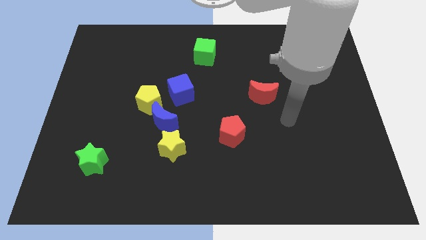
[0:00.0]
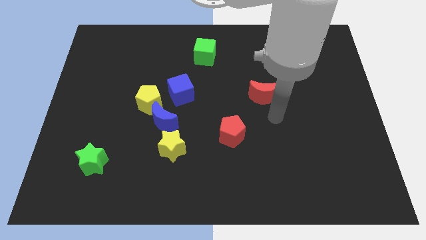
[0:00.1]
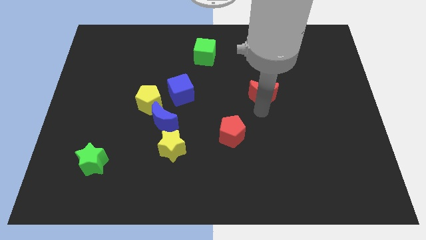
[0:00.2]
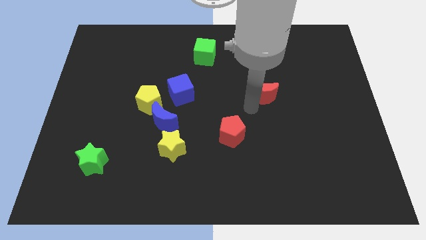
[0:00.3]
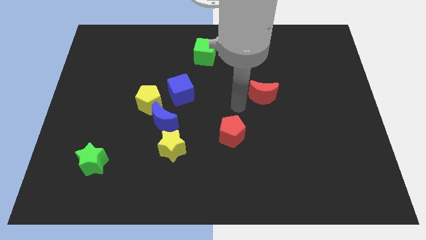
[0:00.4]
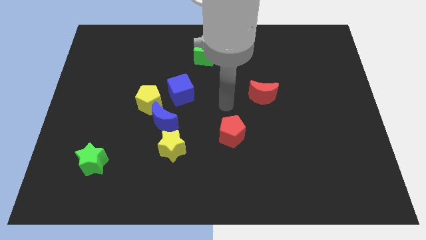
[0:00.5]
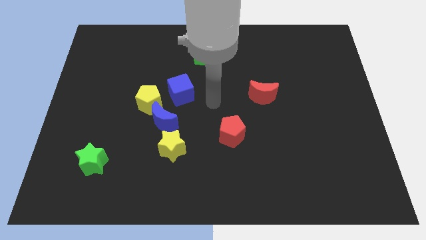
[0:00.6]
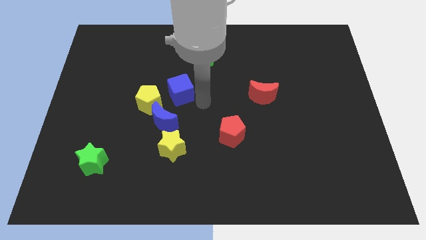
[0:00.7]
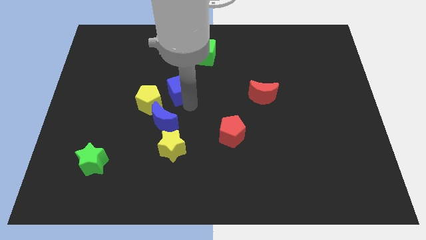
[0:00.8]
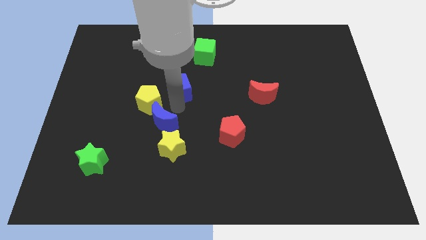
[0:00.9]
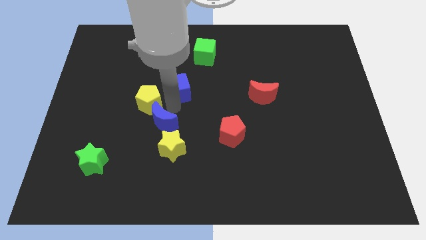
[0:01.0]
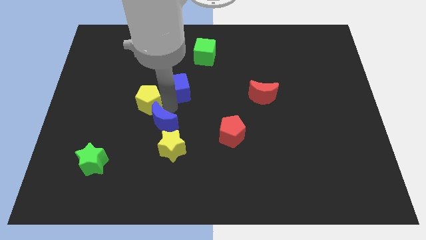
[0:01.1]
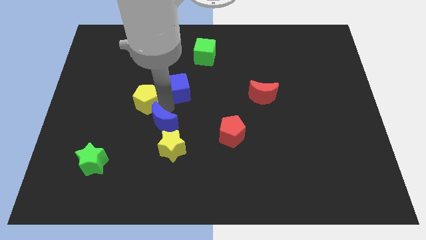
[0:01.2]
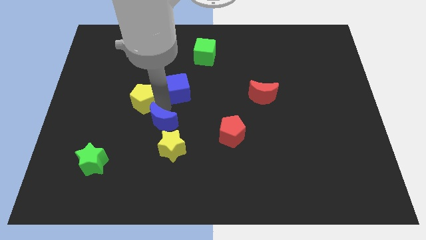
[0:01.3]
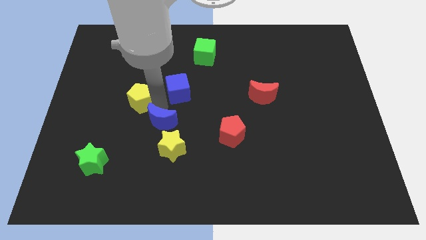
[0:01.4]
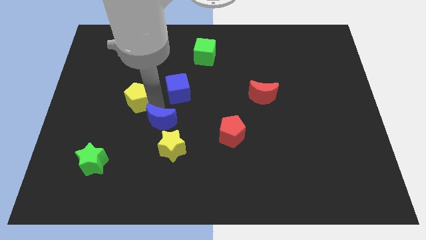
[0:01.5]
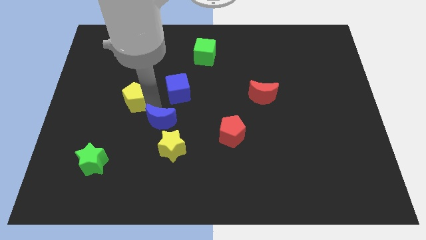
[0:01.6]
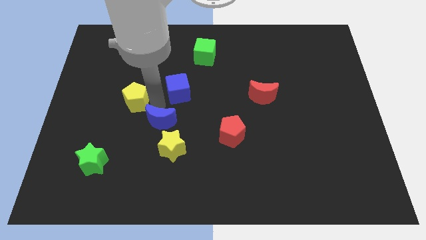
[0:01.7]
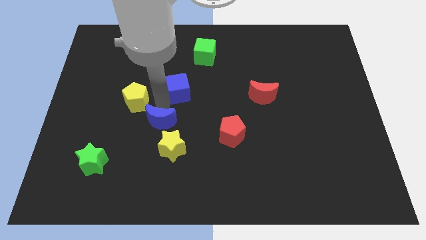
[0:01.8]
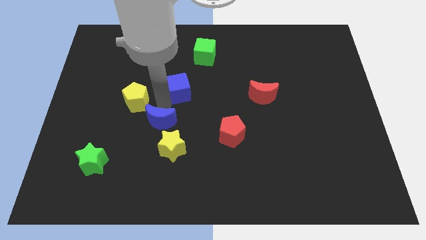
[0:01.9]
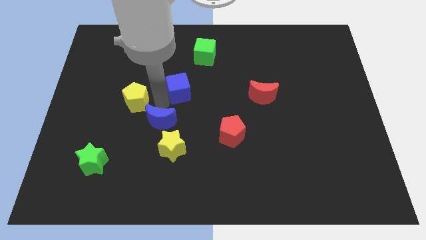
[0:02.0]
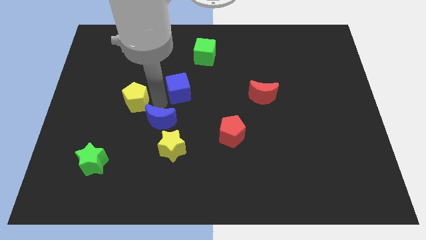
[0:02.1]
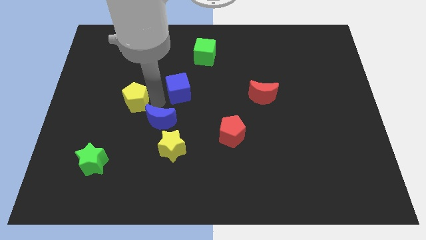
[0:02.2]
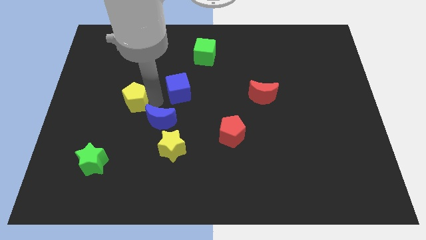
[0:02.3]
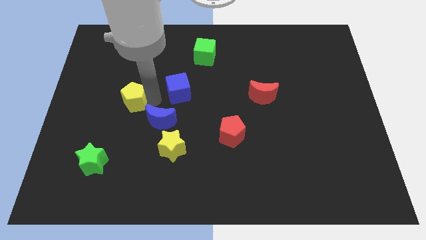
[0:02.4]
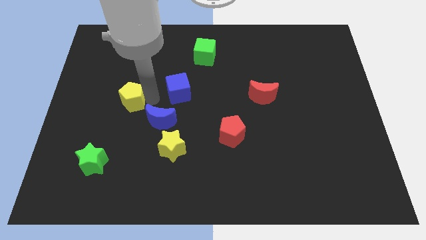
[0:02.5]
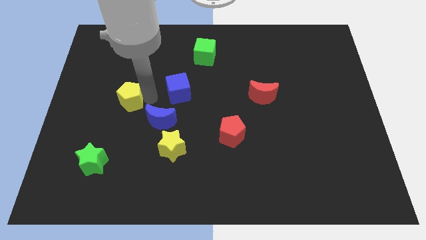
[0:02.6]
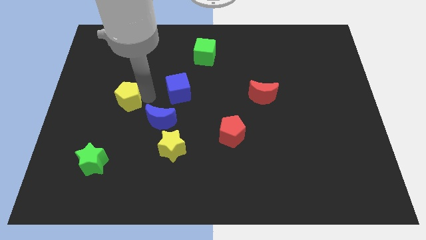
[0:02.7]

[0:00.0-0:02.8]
pull the yellow pentagon apart from the blue moon and blue cube

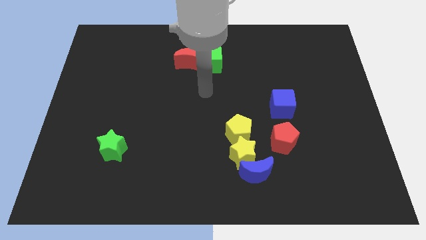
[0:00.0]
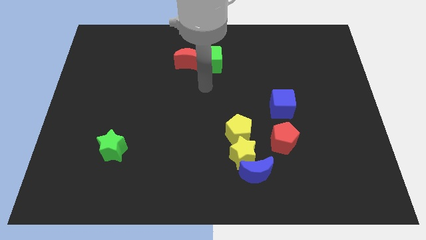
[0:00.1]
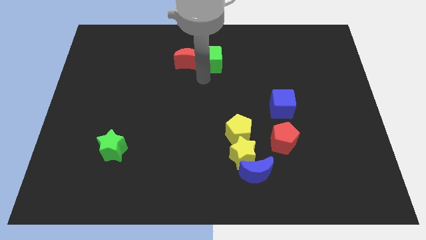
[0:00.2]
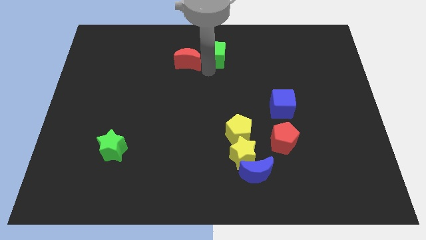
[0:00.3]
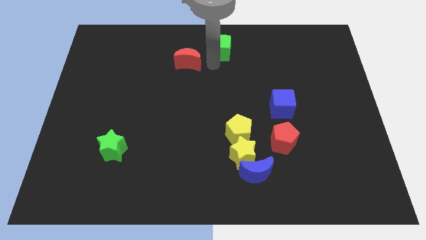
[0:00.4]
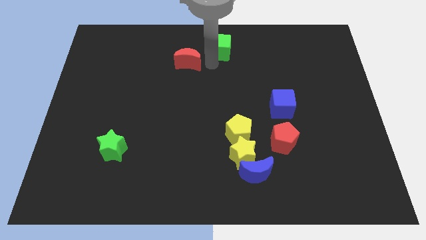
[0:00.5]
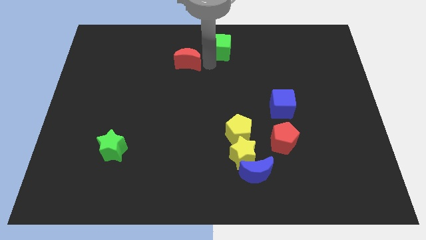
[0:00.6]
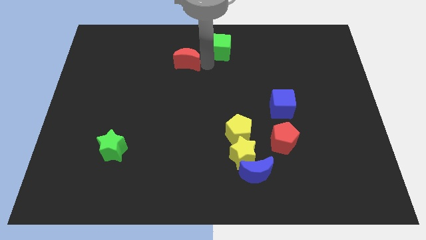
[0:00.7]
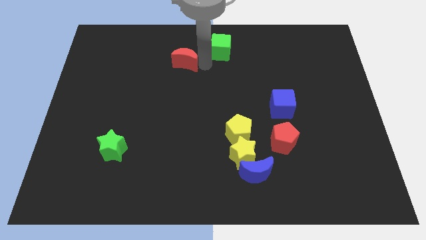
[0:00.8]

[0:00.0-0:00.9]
move the red moon away from the green cube

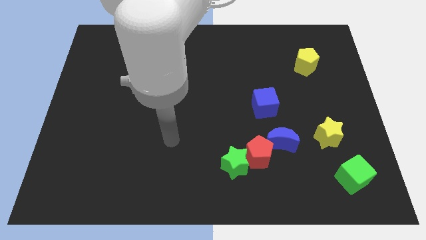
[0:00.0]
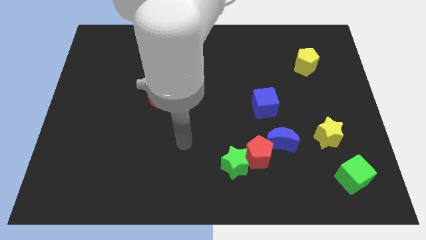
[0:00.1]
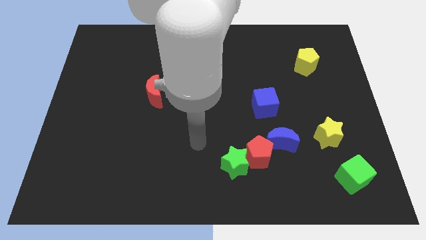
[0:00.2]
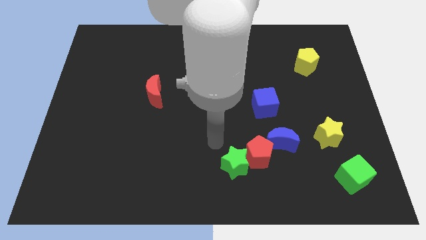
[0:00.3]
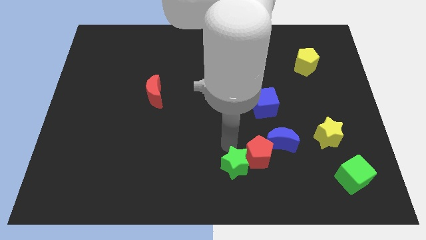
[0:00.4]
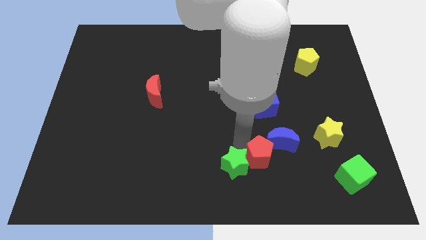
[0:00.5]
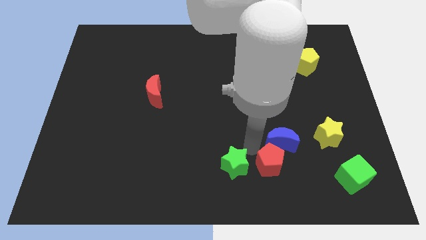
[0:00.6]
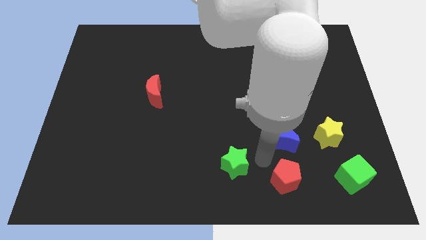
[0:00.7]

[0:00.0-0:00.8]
move the green star away from the red pentagon

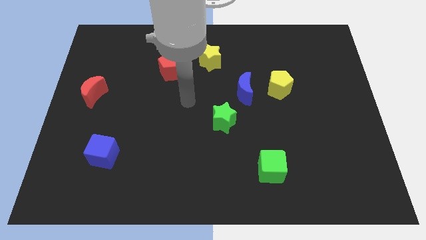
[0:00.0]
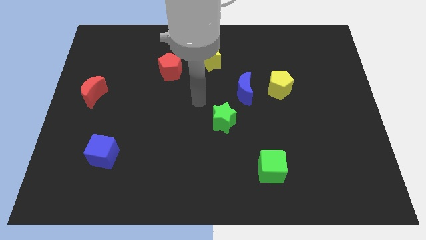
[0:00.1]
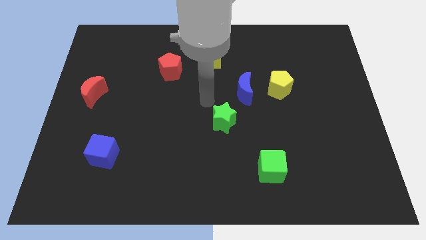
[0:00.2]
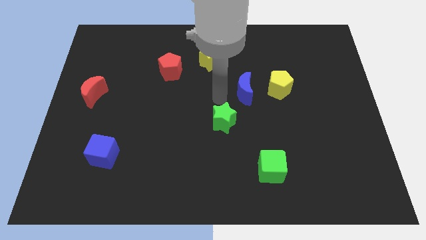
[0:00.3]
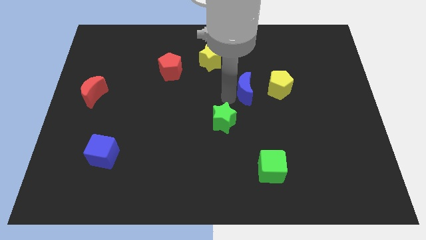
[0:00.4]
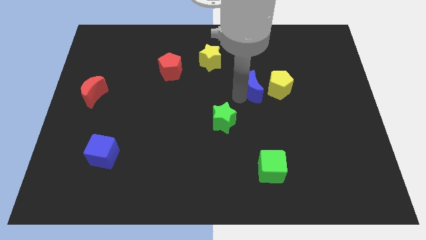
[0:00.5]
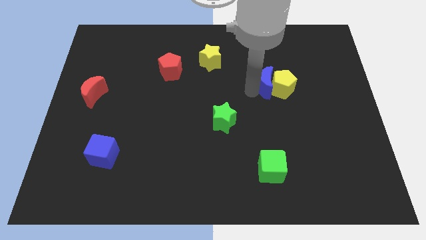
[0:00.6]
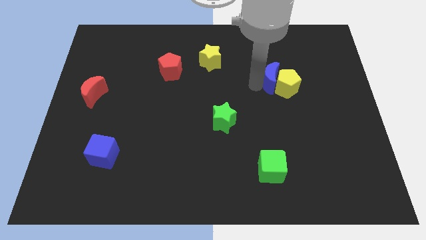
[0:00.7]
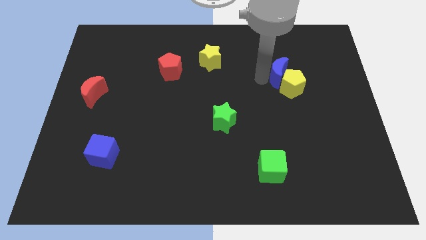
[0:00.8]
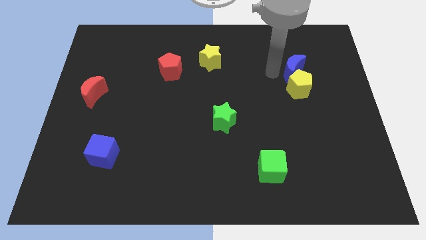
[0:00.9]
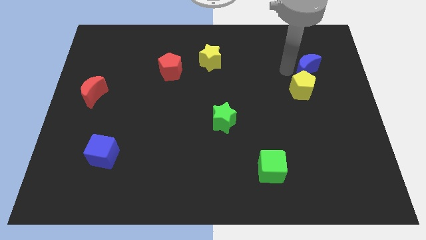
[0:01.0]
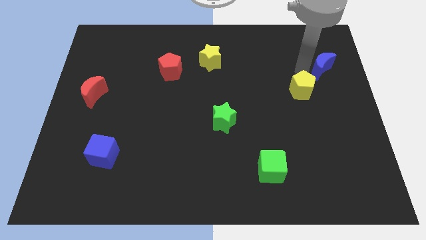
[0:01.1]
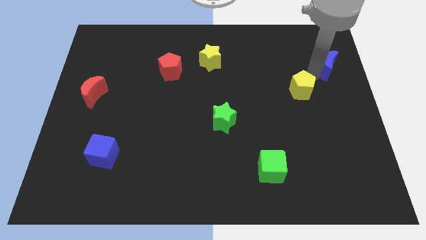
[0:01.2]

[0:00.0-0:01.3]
separate the yellow pentagon from the blue moon

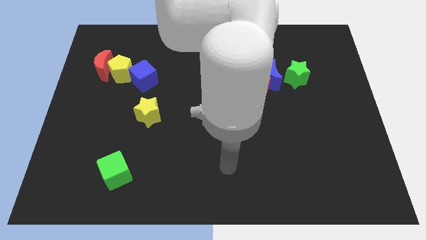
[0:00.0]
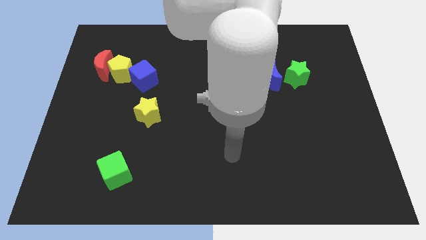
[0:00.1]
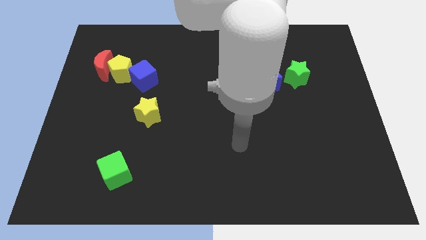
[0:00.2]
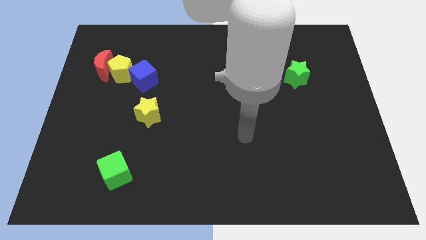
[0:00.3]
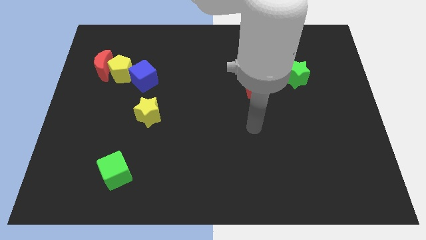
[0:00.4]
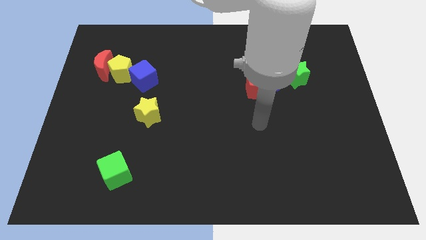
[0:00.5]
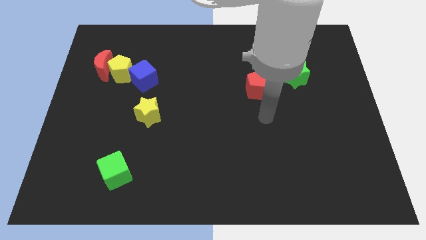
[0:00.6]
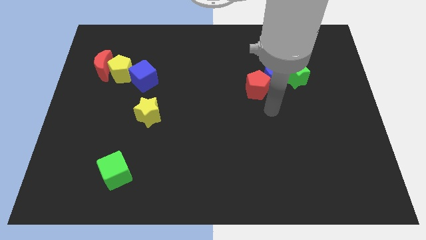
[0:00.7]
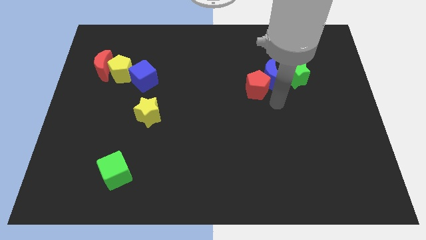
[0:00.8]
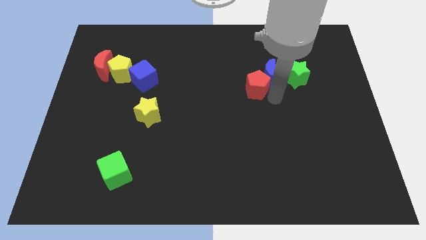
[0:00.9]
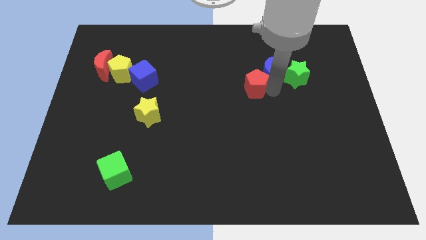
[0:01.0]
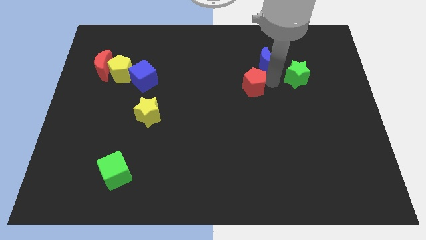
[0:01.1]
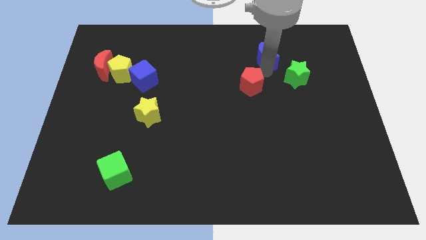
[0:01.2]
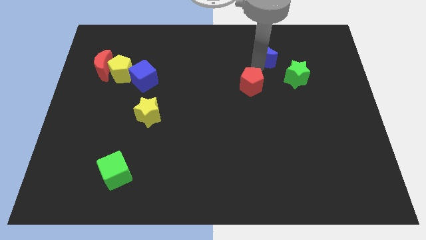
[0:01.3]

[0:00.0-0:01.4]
move the red pentagon away from the blue moon

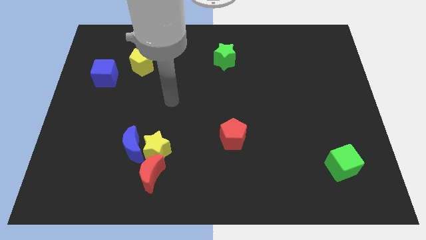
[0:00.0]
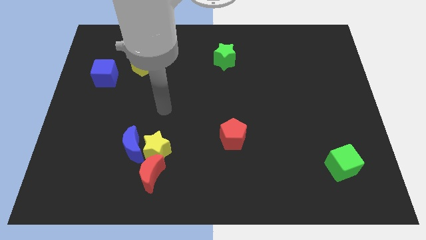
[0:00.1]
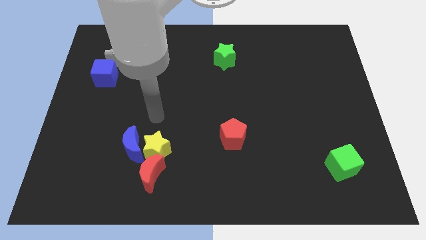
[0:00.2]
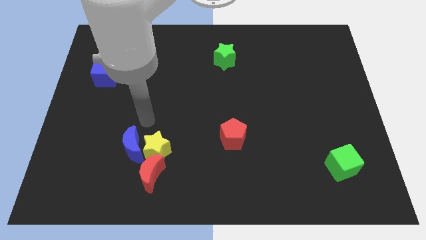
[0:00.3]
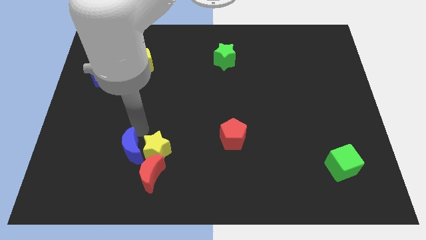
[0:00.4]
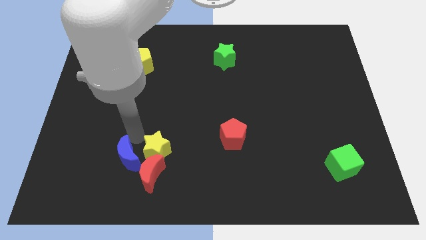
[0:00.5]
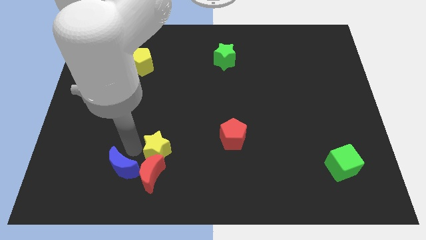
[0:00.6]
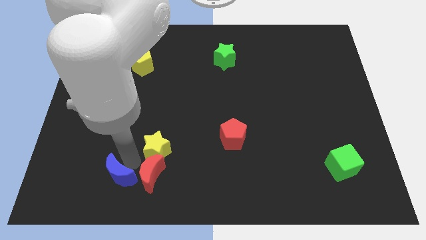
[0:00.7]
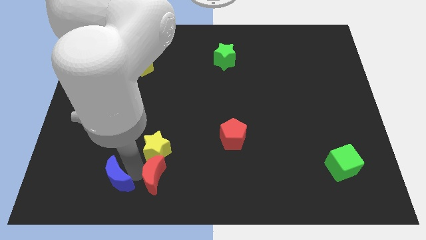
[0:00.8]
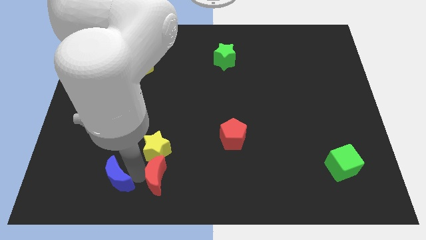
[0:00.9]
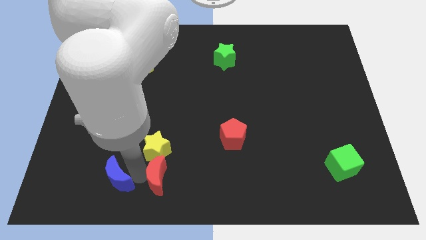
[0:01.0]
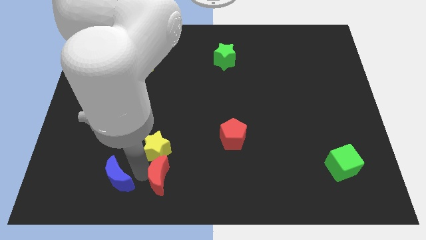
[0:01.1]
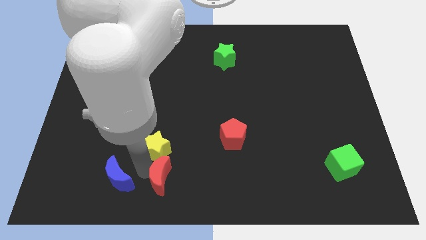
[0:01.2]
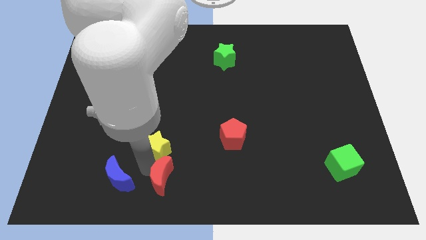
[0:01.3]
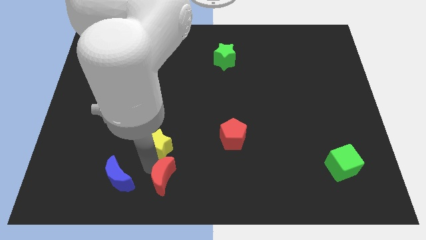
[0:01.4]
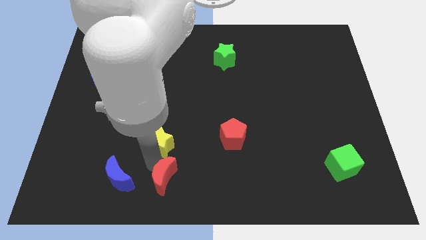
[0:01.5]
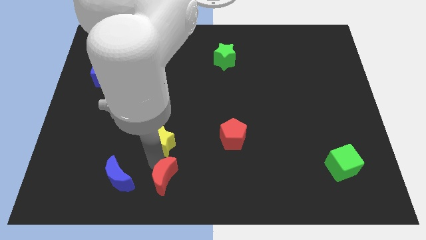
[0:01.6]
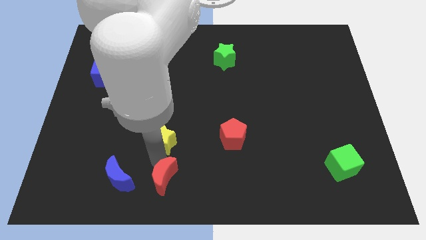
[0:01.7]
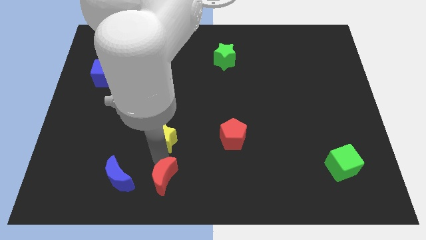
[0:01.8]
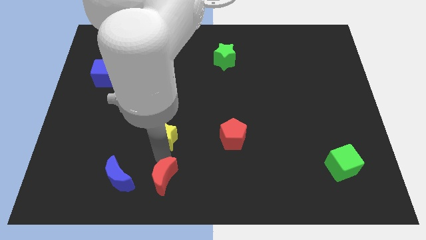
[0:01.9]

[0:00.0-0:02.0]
separate the yellow star from the blue moon and red moon
